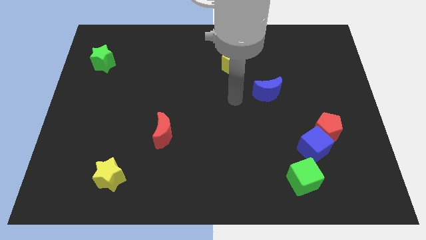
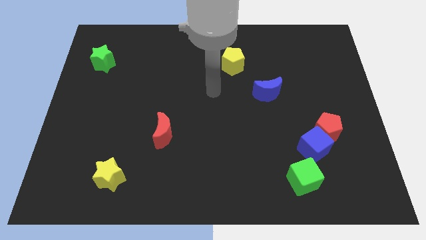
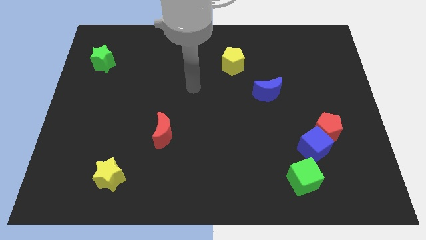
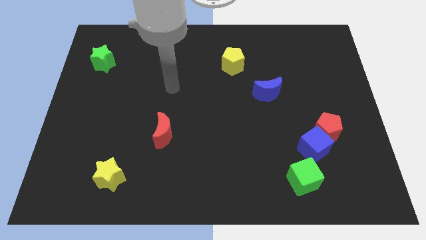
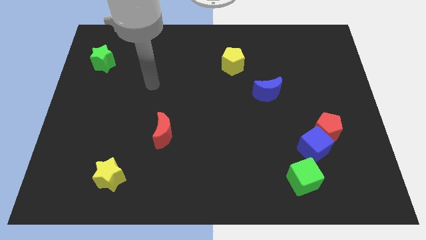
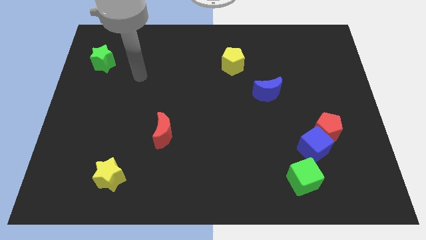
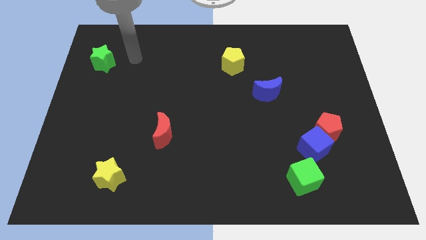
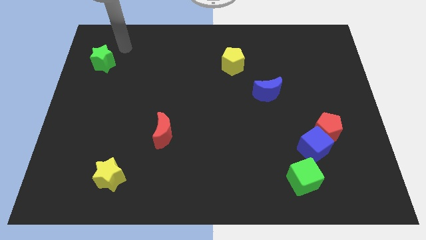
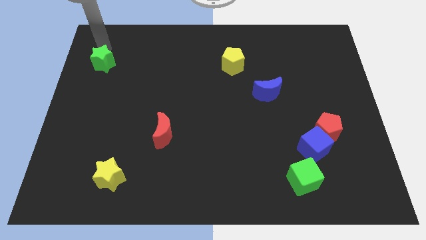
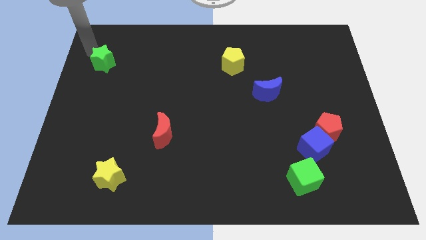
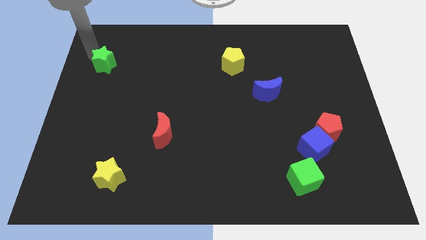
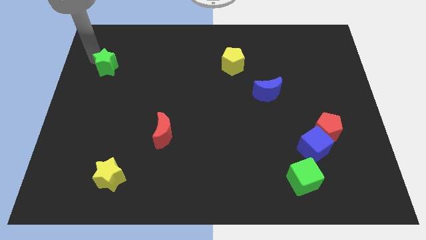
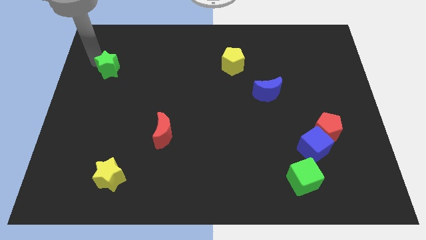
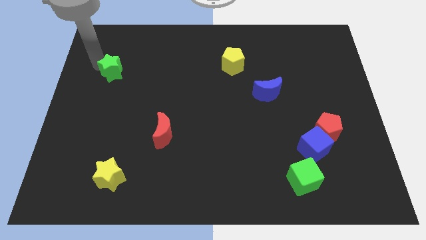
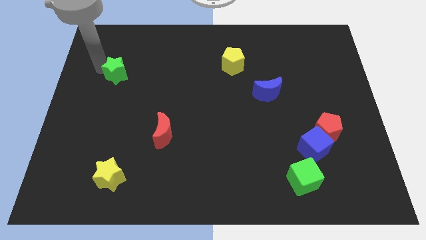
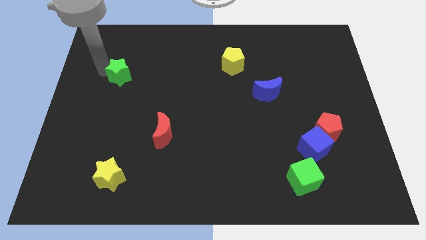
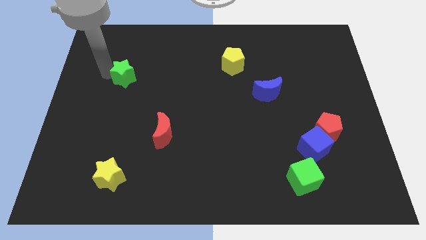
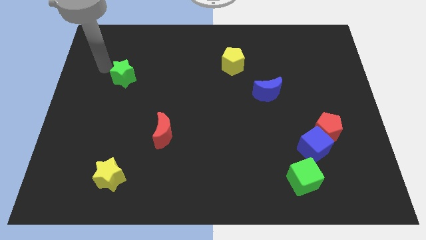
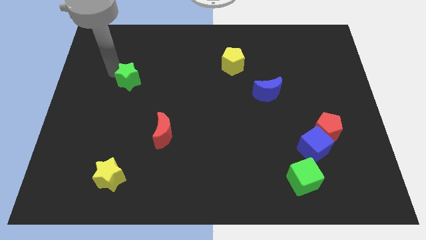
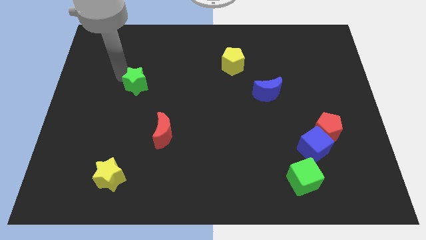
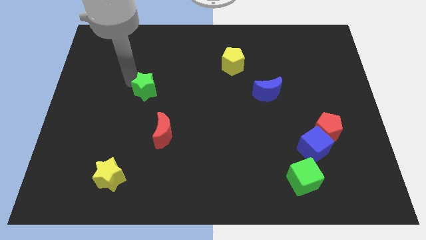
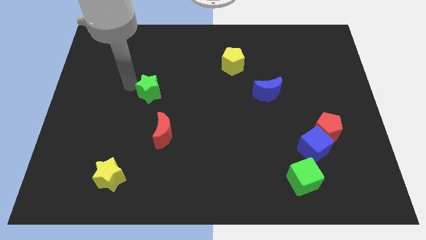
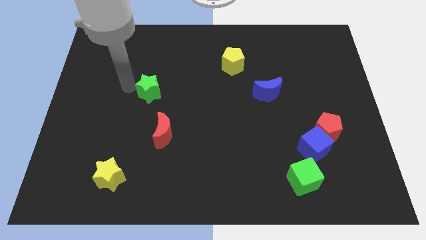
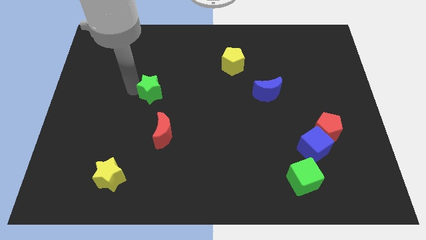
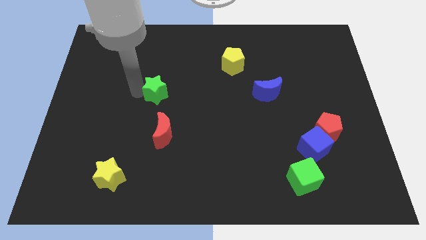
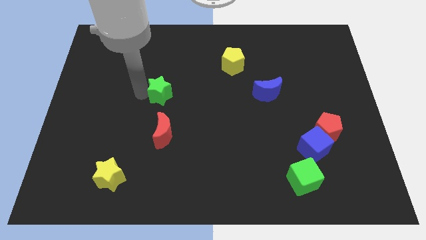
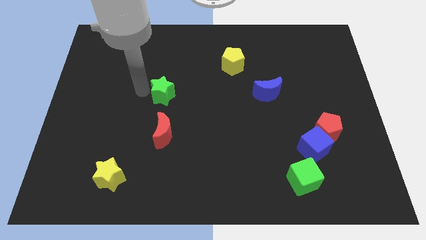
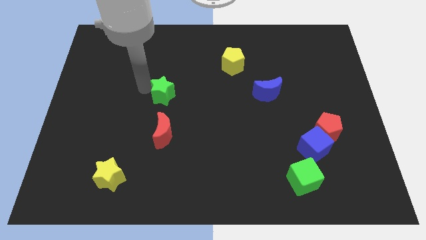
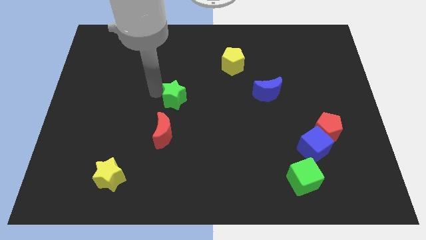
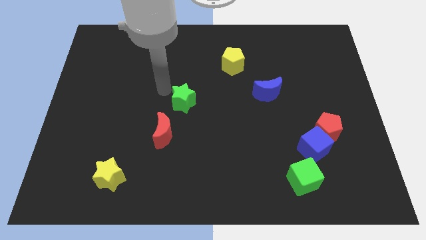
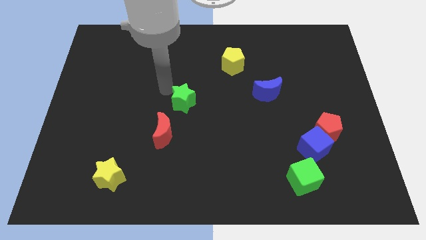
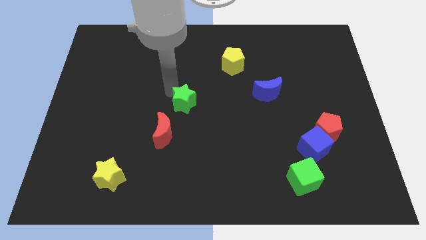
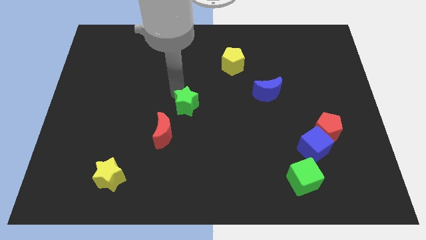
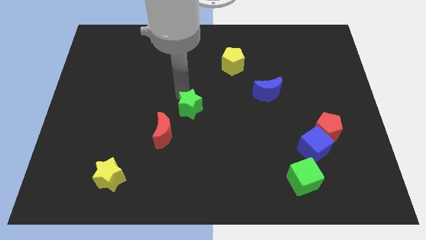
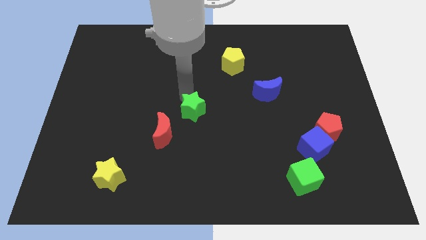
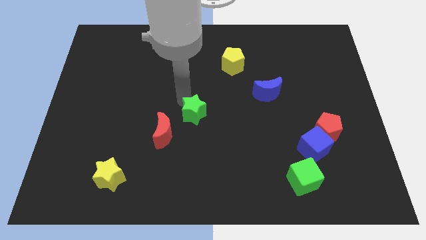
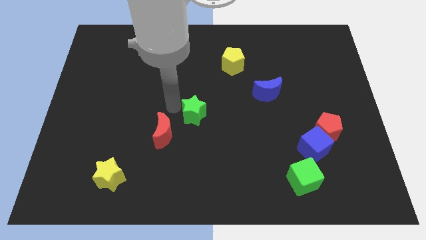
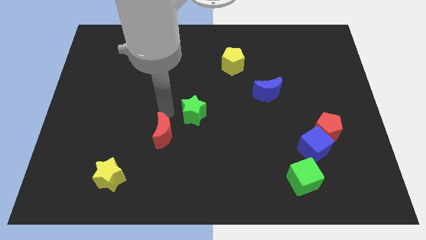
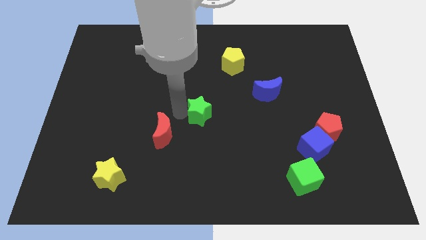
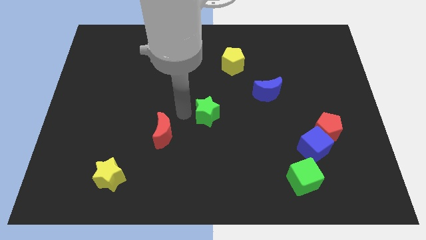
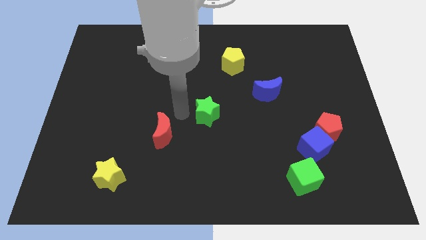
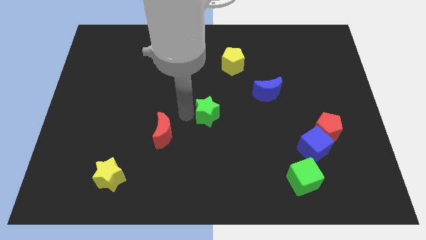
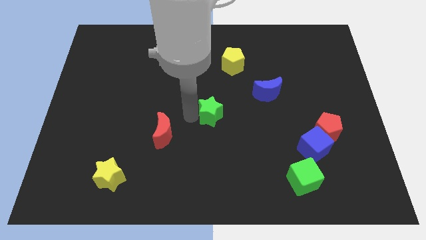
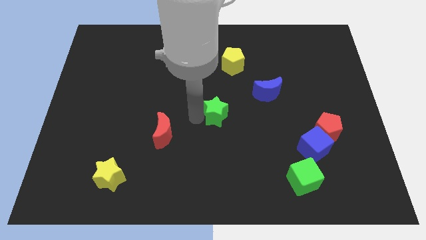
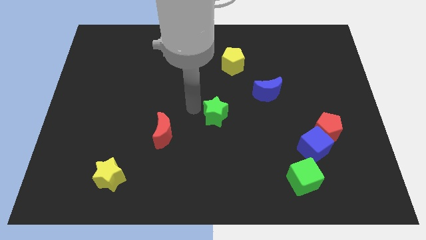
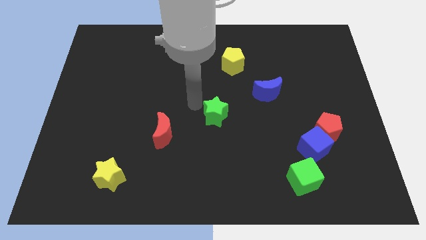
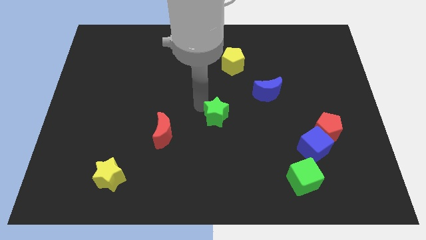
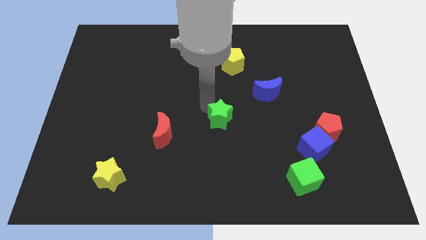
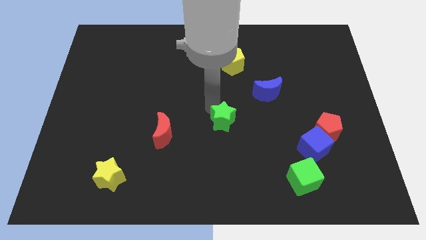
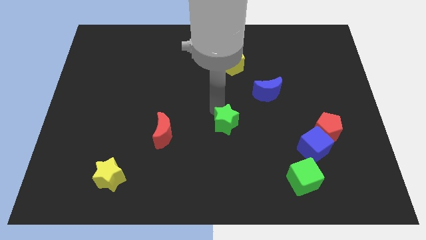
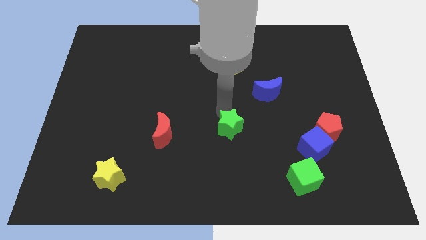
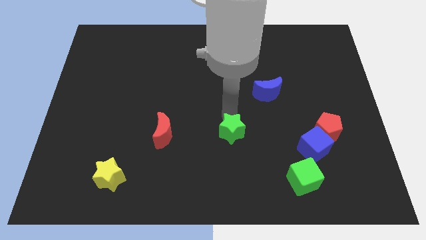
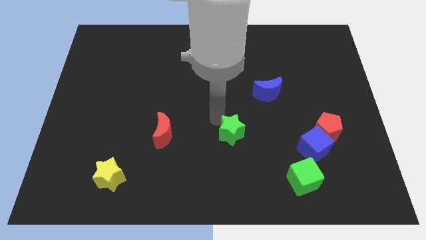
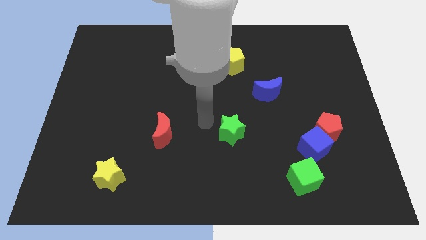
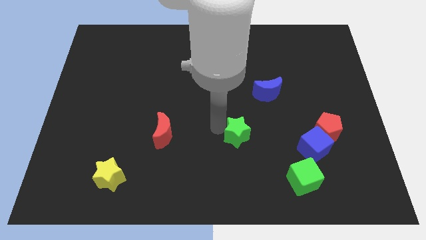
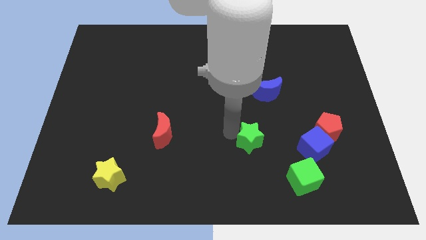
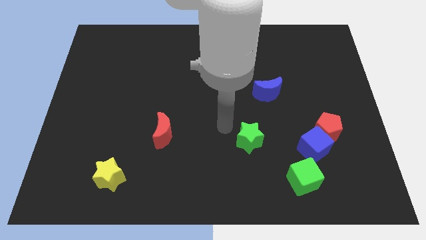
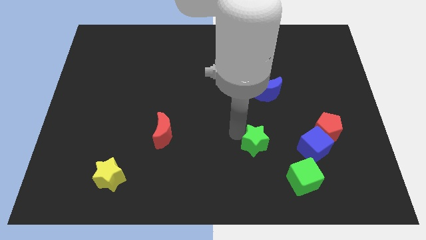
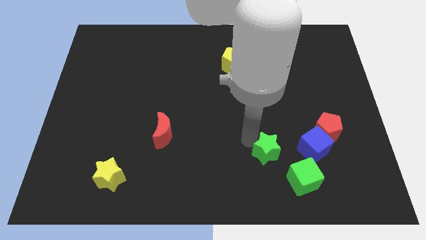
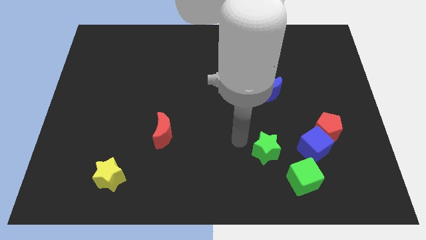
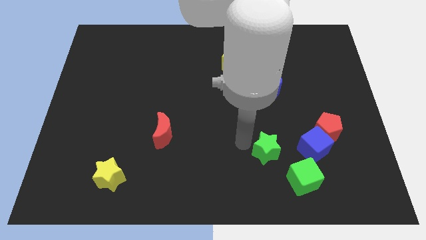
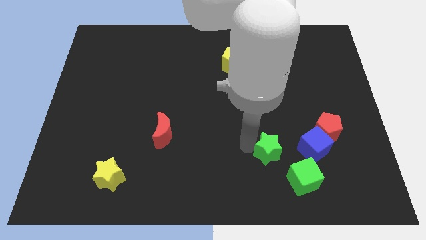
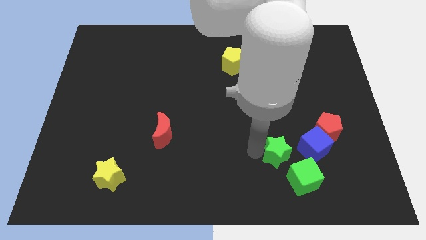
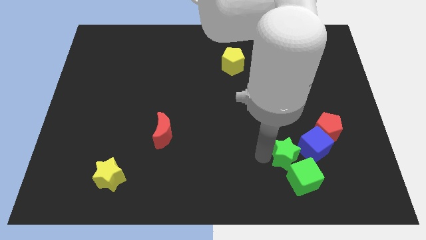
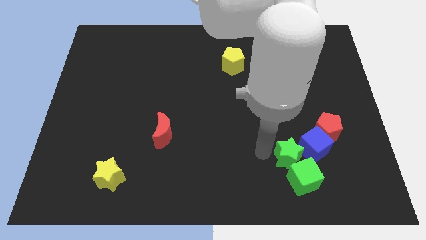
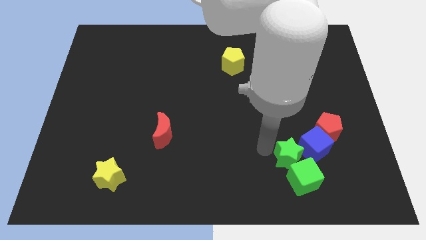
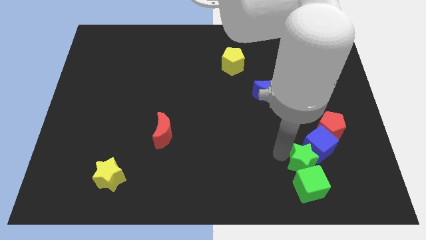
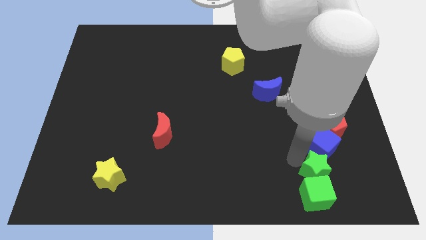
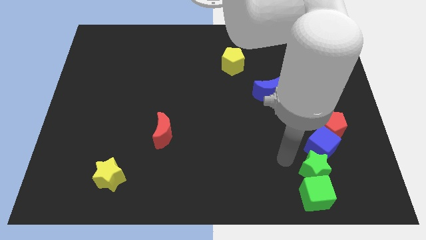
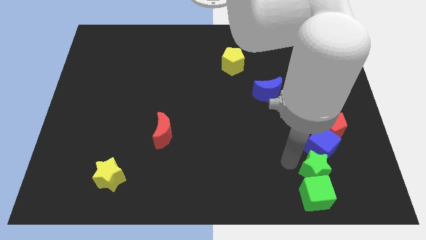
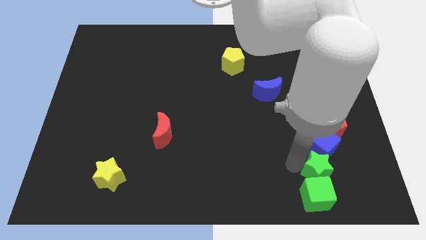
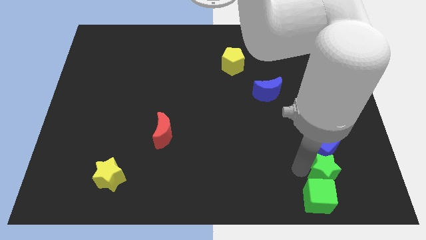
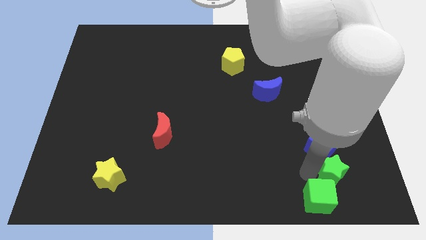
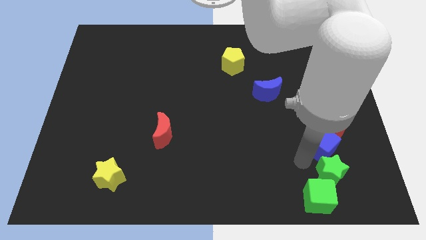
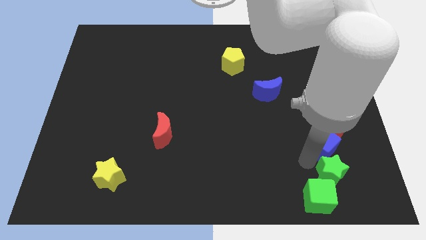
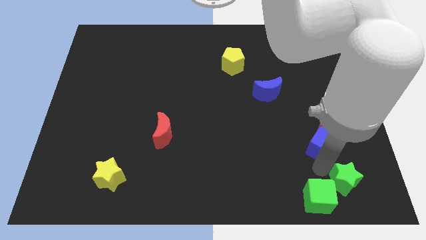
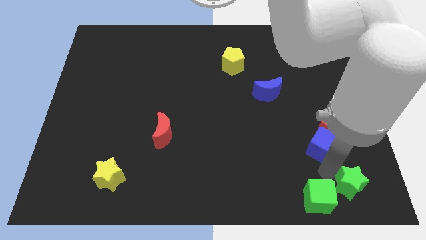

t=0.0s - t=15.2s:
push the green star to the bottom right of the board
